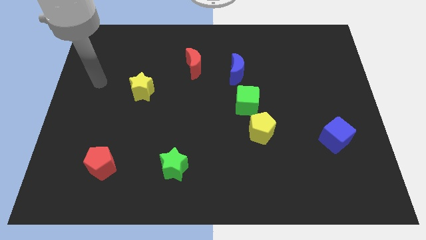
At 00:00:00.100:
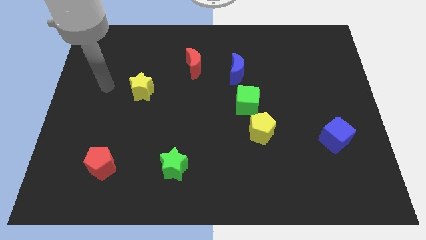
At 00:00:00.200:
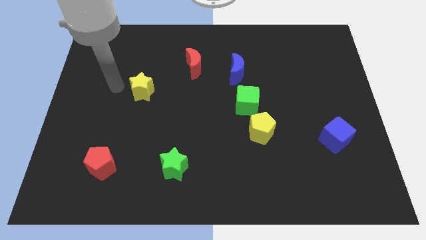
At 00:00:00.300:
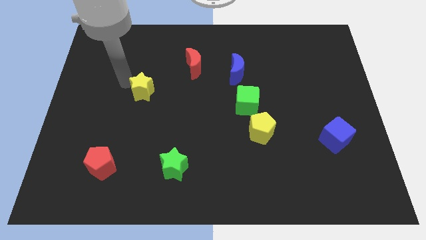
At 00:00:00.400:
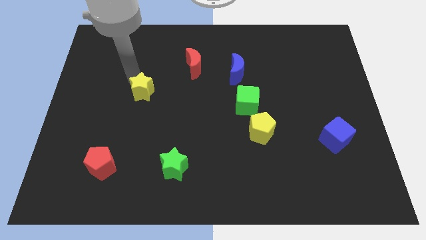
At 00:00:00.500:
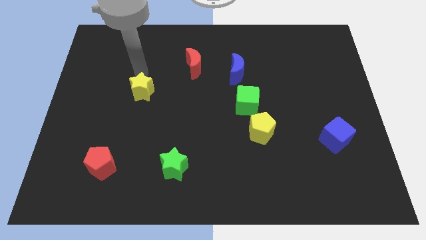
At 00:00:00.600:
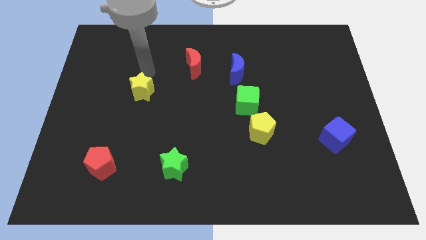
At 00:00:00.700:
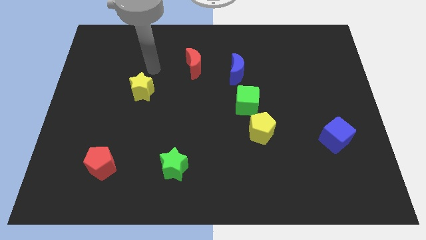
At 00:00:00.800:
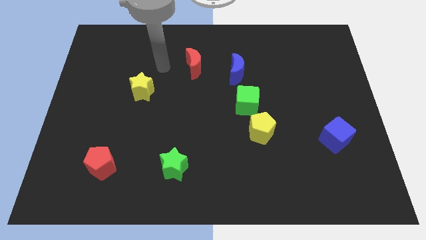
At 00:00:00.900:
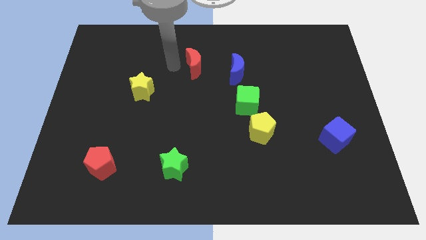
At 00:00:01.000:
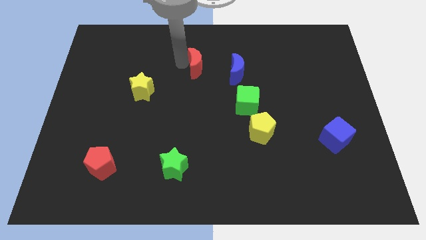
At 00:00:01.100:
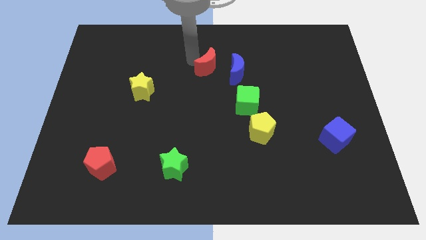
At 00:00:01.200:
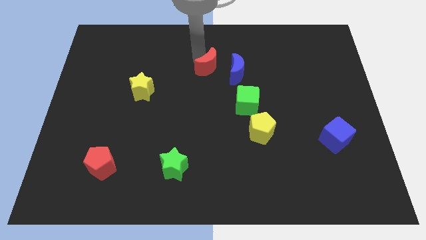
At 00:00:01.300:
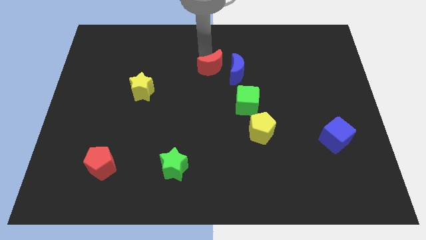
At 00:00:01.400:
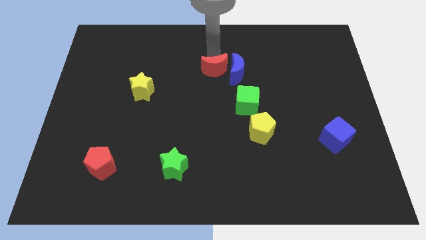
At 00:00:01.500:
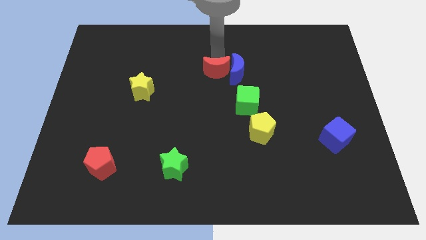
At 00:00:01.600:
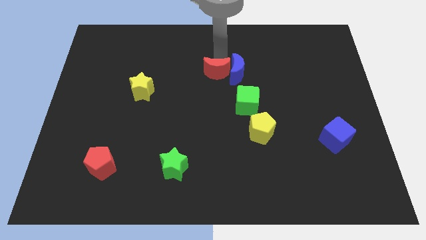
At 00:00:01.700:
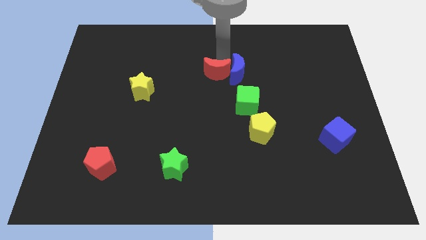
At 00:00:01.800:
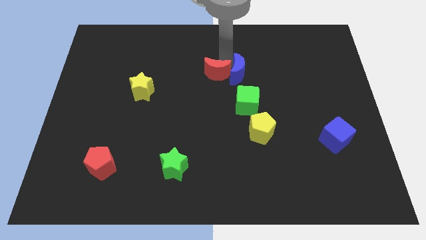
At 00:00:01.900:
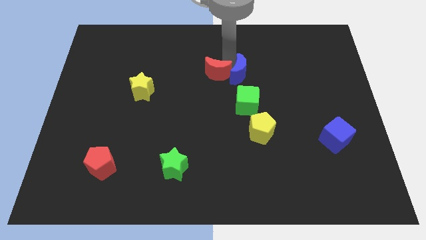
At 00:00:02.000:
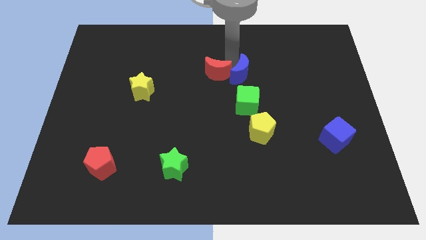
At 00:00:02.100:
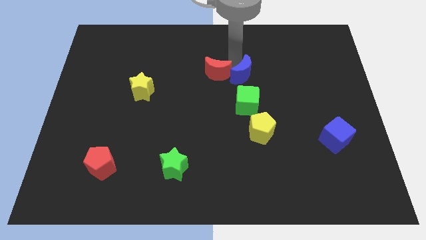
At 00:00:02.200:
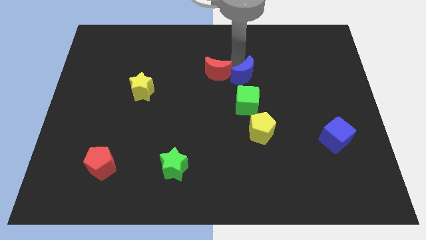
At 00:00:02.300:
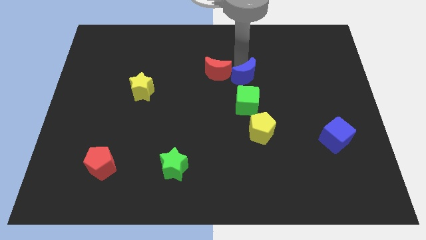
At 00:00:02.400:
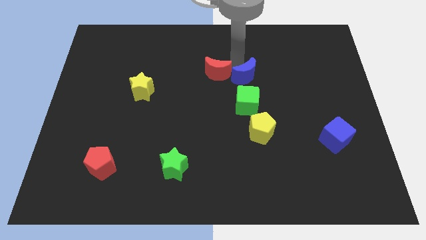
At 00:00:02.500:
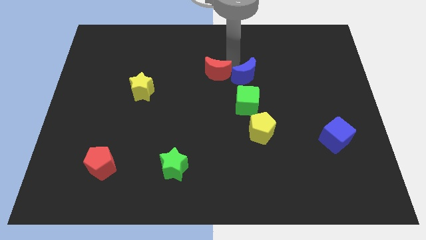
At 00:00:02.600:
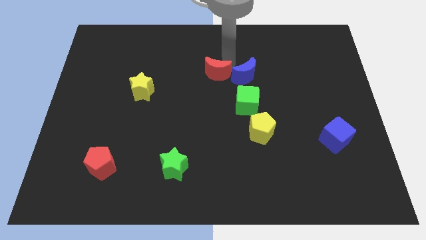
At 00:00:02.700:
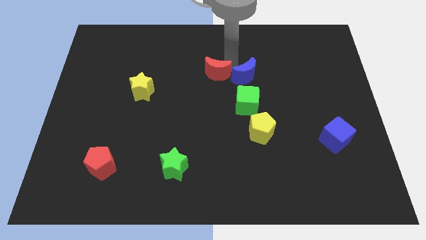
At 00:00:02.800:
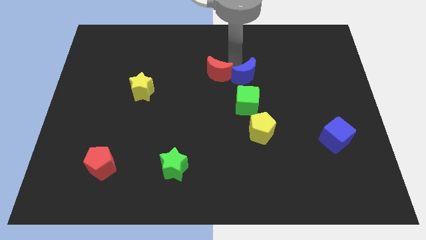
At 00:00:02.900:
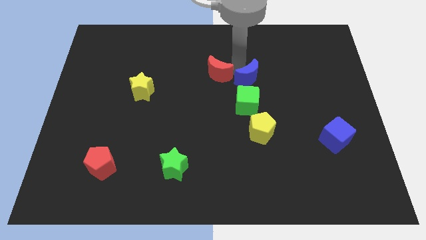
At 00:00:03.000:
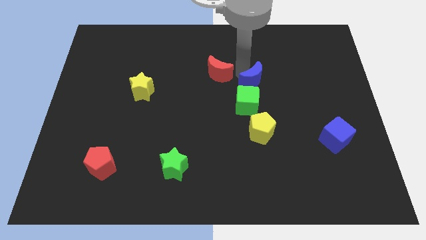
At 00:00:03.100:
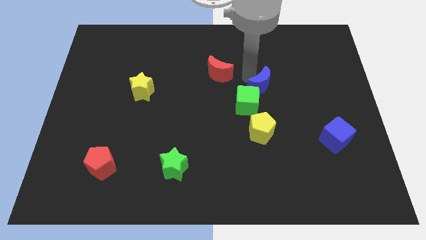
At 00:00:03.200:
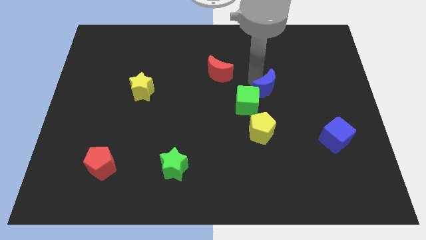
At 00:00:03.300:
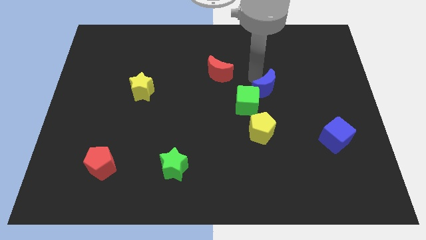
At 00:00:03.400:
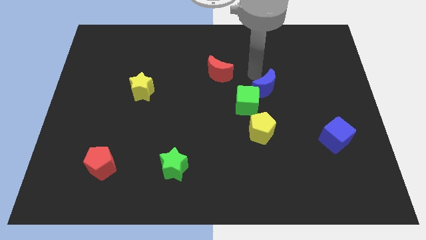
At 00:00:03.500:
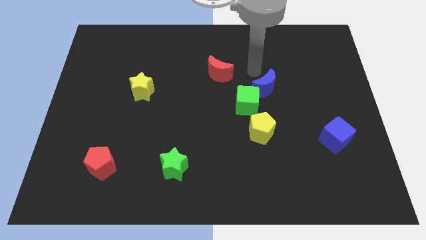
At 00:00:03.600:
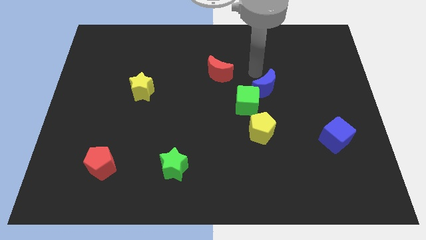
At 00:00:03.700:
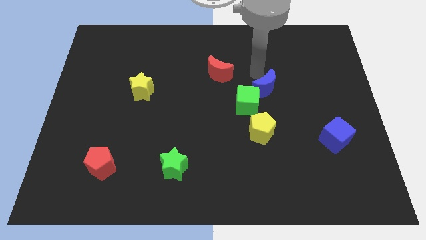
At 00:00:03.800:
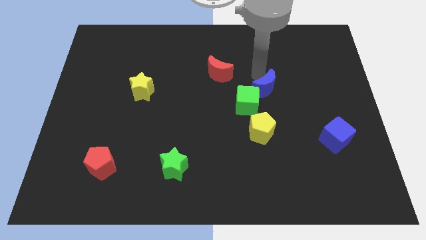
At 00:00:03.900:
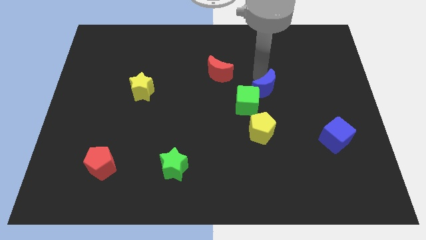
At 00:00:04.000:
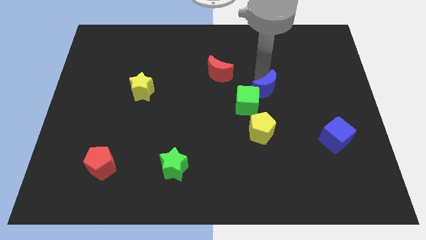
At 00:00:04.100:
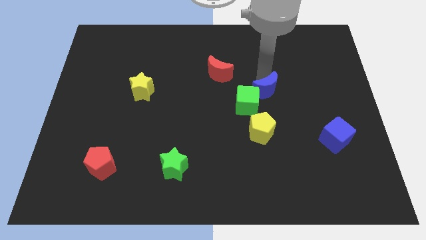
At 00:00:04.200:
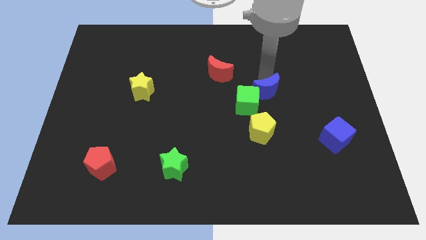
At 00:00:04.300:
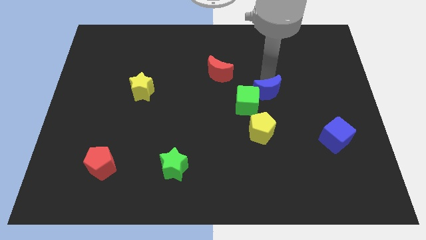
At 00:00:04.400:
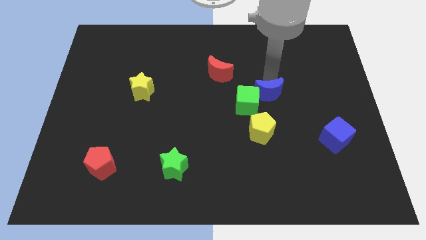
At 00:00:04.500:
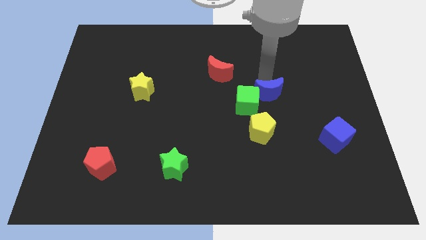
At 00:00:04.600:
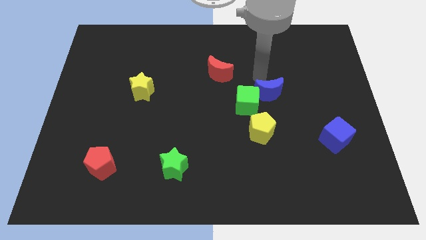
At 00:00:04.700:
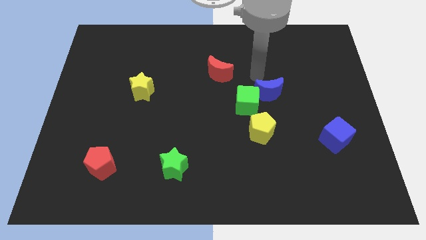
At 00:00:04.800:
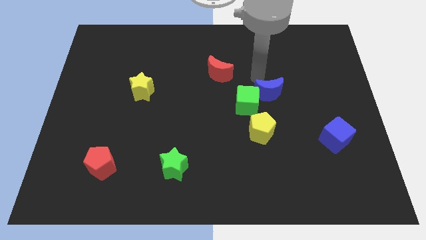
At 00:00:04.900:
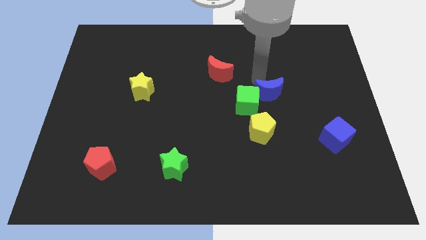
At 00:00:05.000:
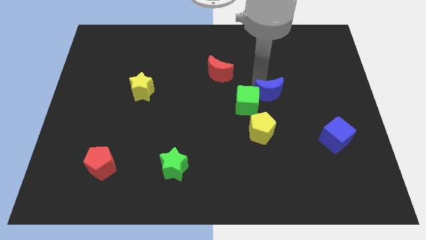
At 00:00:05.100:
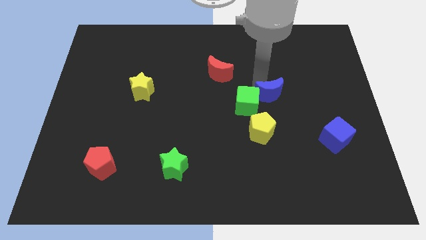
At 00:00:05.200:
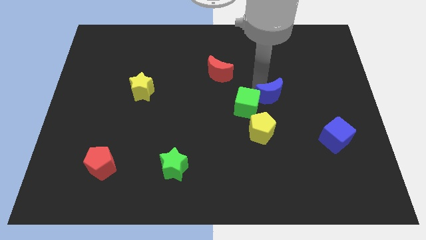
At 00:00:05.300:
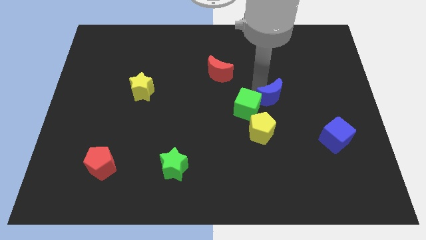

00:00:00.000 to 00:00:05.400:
put the blue moon to the top right side of the yellow pentagon

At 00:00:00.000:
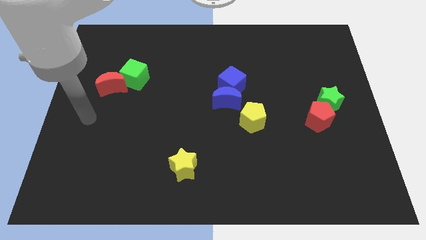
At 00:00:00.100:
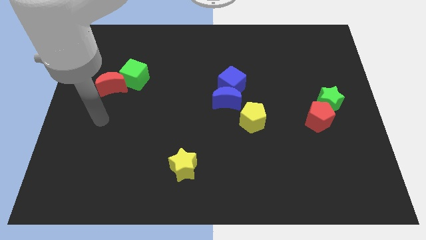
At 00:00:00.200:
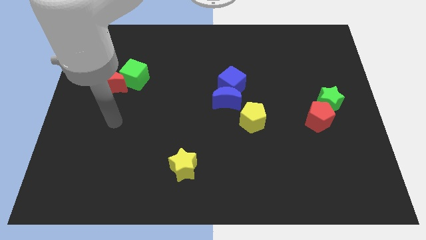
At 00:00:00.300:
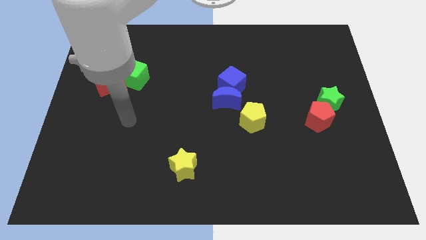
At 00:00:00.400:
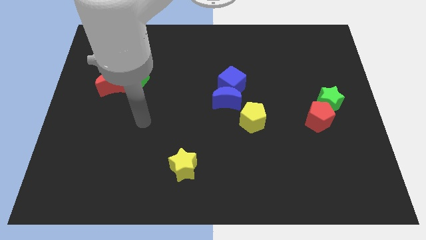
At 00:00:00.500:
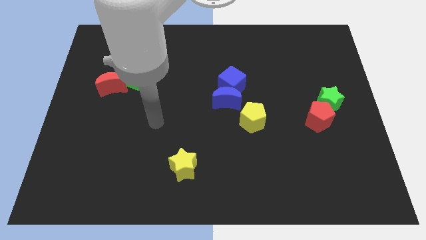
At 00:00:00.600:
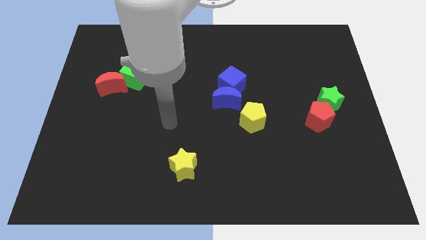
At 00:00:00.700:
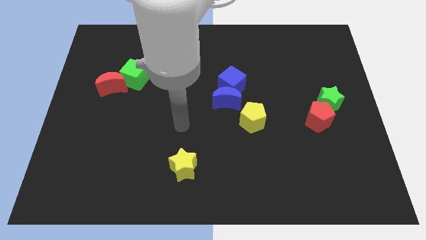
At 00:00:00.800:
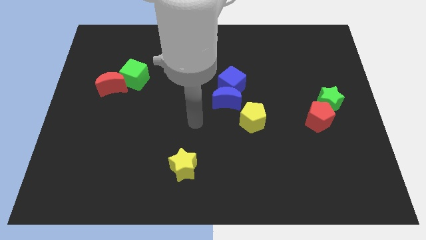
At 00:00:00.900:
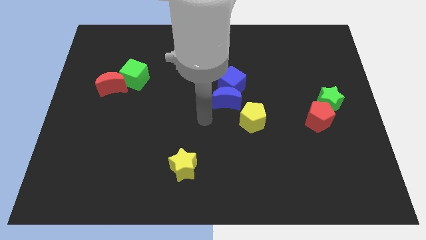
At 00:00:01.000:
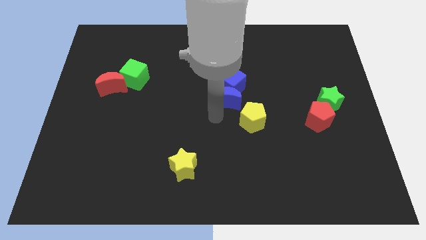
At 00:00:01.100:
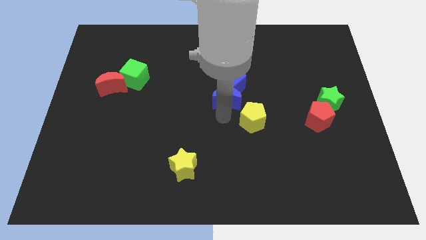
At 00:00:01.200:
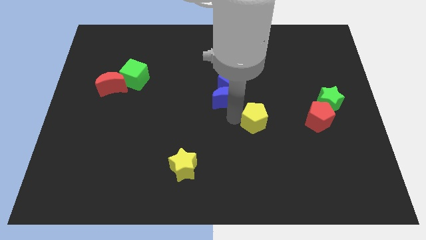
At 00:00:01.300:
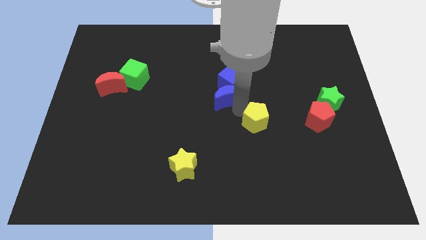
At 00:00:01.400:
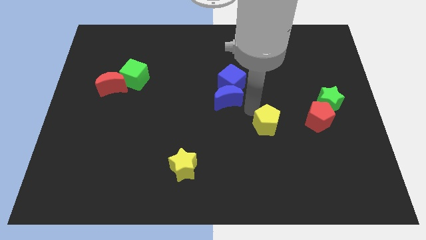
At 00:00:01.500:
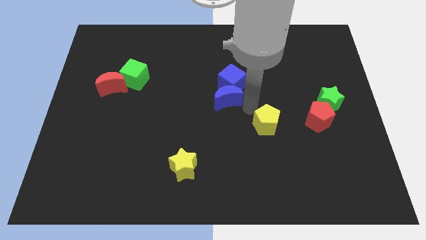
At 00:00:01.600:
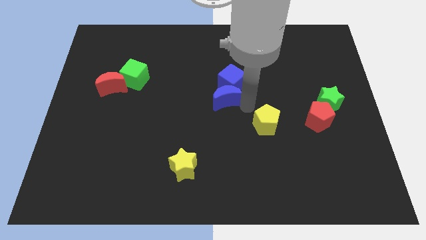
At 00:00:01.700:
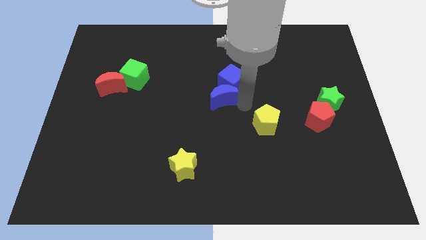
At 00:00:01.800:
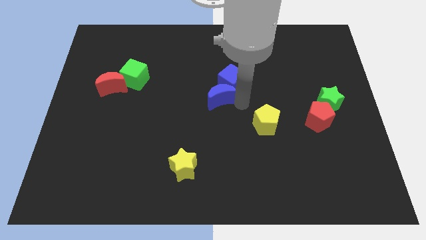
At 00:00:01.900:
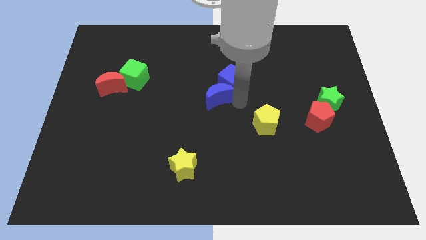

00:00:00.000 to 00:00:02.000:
move the blue moon to the left of the blue cube
